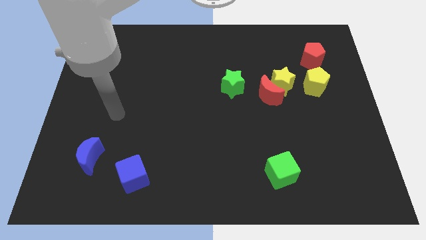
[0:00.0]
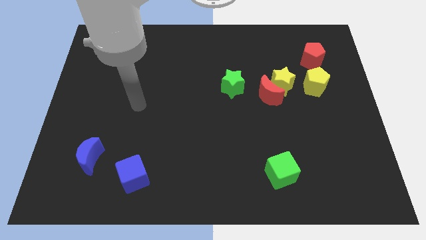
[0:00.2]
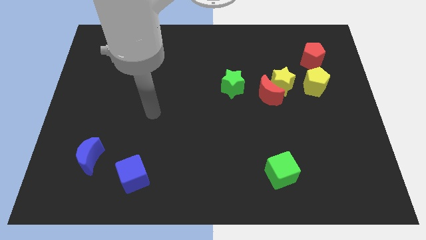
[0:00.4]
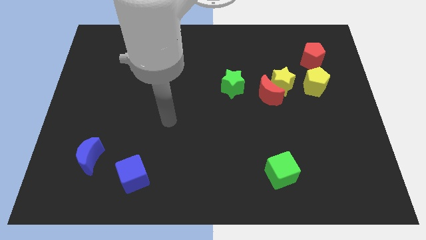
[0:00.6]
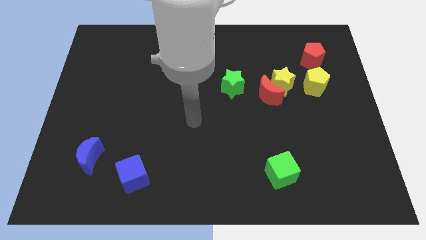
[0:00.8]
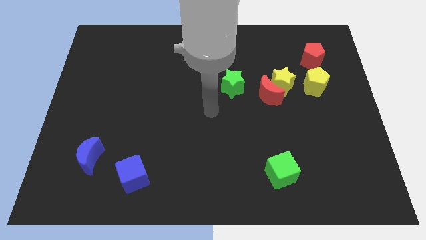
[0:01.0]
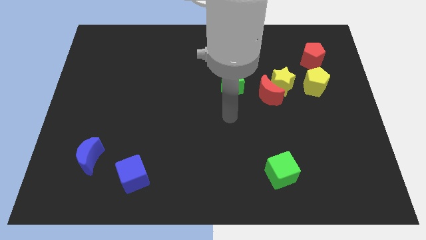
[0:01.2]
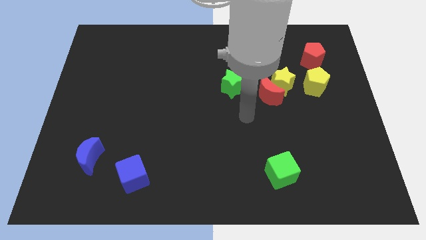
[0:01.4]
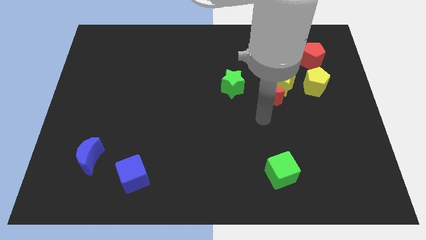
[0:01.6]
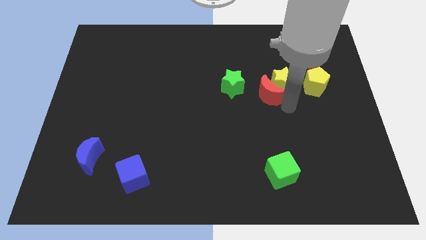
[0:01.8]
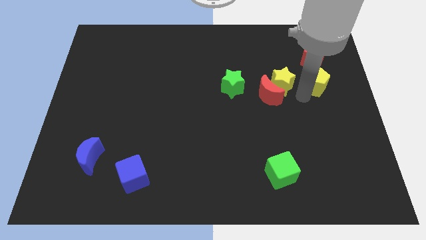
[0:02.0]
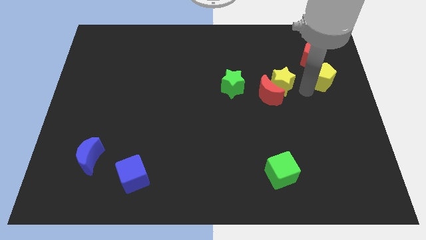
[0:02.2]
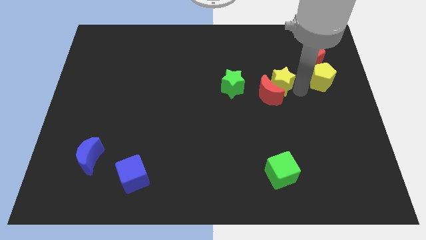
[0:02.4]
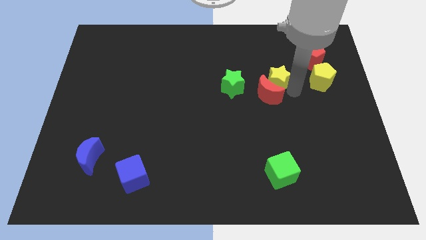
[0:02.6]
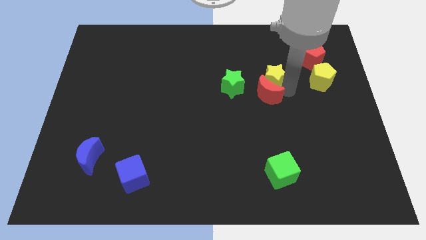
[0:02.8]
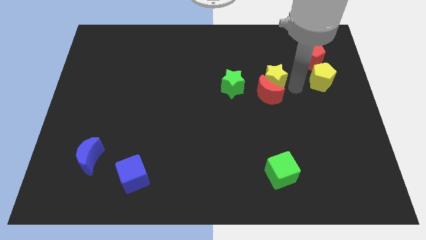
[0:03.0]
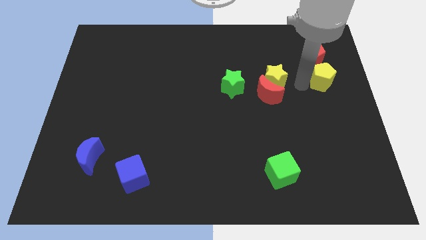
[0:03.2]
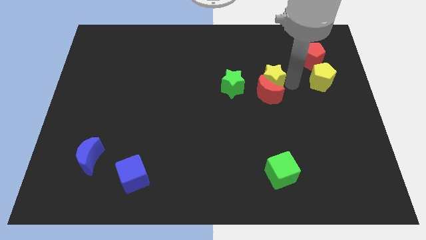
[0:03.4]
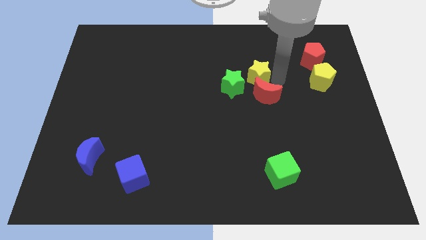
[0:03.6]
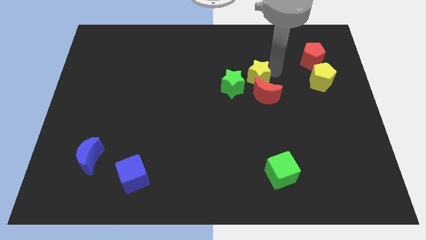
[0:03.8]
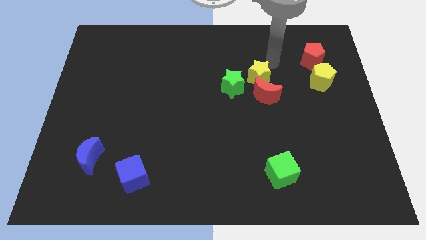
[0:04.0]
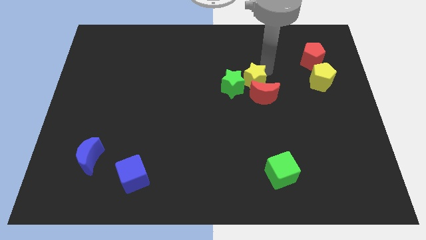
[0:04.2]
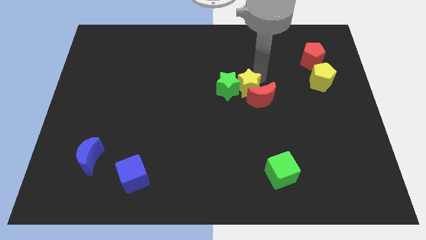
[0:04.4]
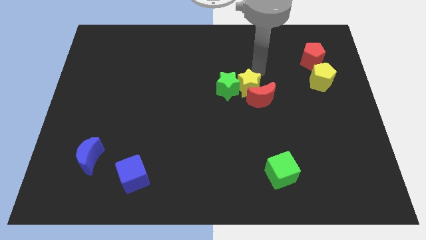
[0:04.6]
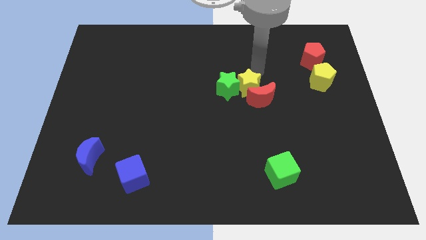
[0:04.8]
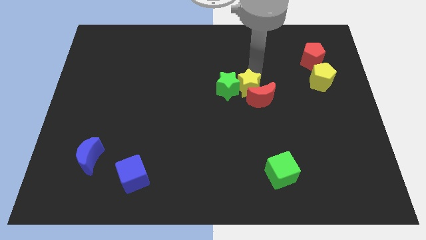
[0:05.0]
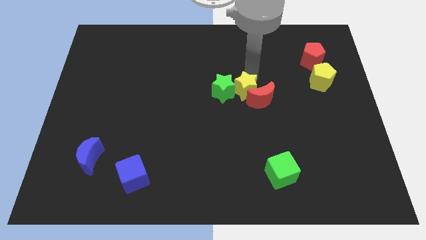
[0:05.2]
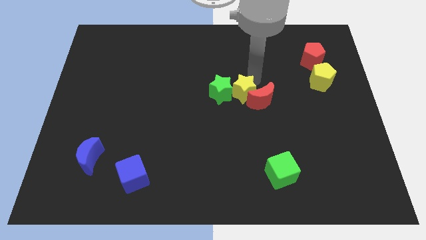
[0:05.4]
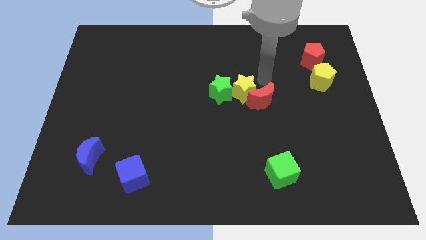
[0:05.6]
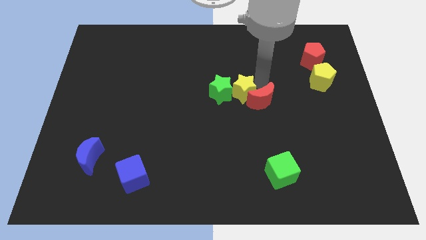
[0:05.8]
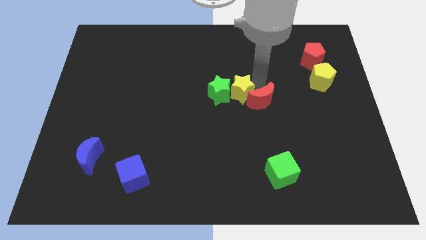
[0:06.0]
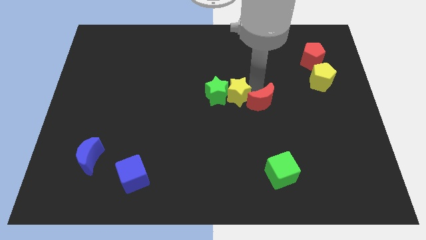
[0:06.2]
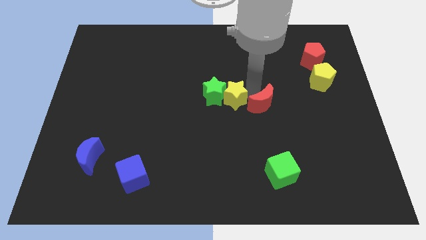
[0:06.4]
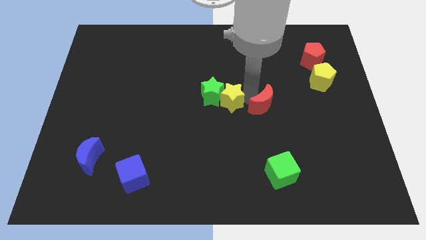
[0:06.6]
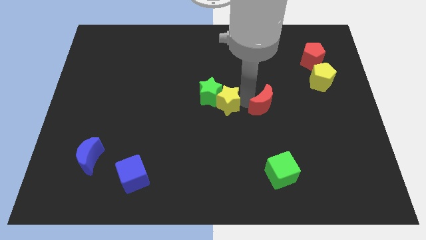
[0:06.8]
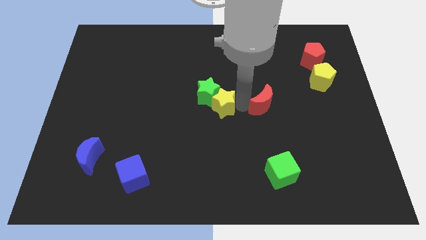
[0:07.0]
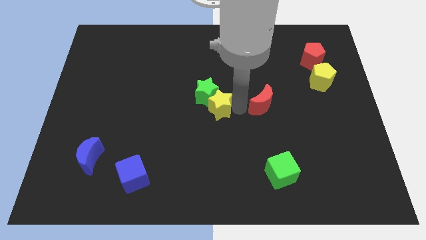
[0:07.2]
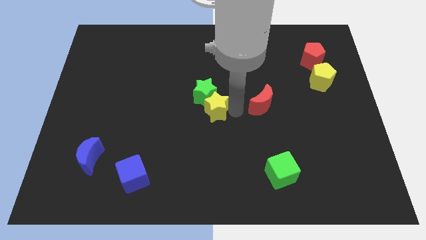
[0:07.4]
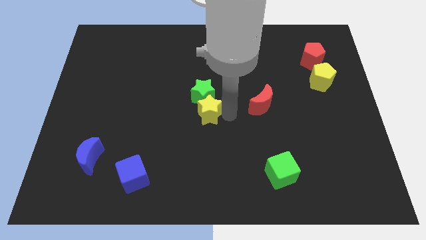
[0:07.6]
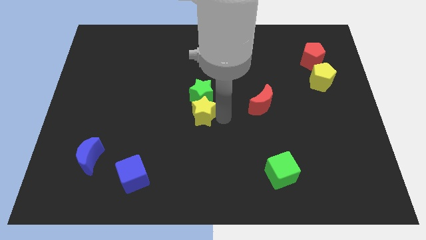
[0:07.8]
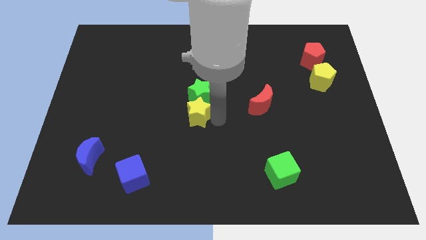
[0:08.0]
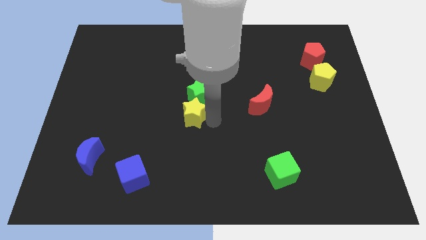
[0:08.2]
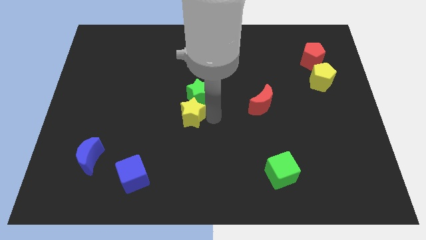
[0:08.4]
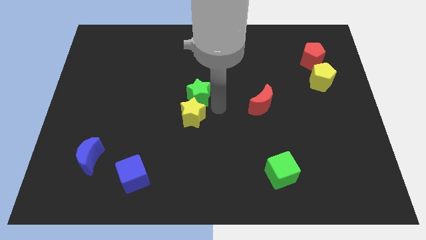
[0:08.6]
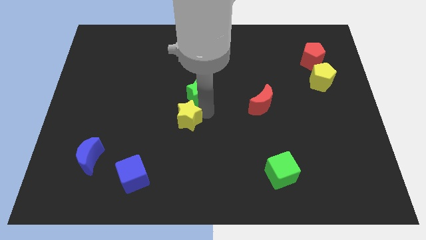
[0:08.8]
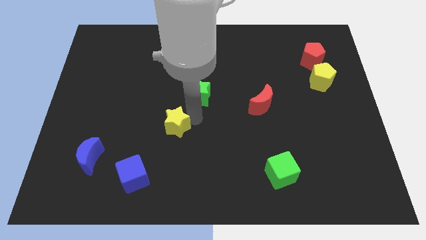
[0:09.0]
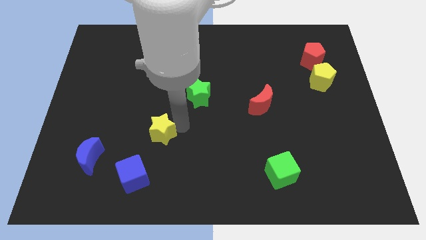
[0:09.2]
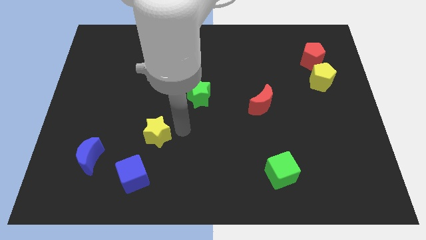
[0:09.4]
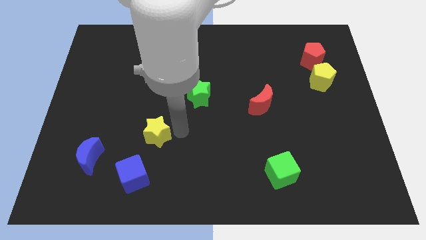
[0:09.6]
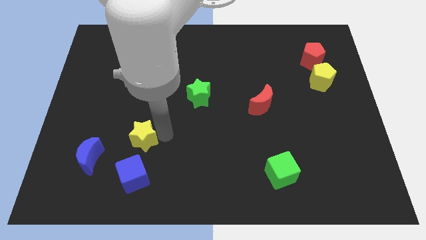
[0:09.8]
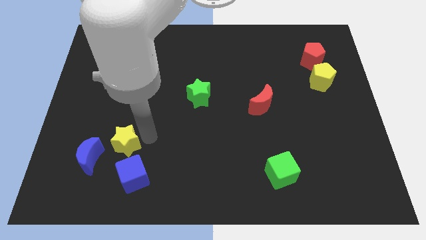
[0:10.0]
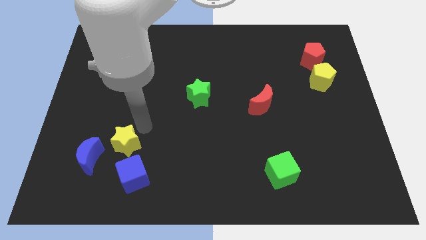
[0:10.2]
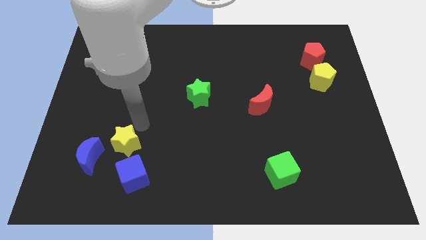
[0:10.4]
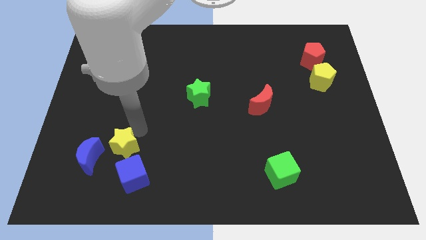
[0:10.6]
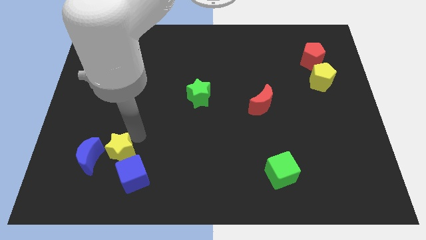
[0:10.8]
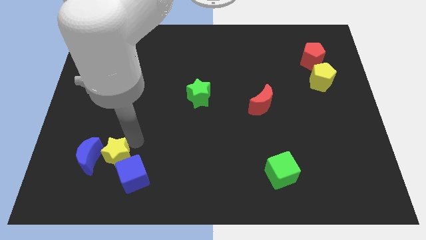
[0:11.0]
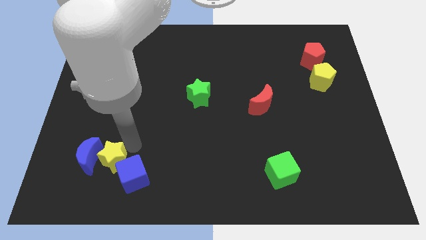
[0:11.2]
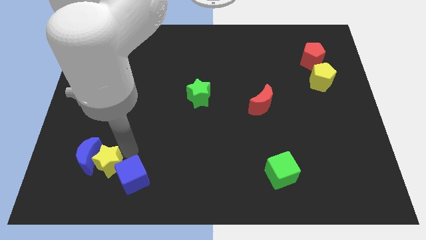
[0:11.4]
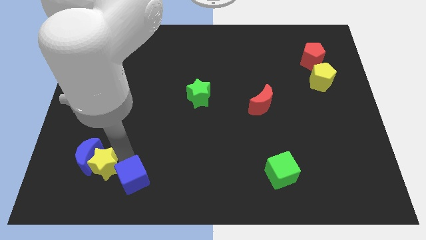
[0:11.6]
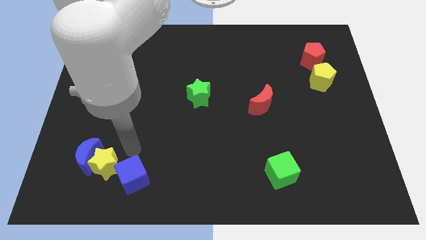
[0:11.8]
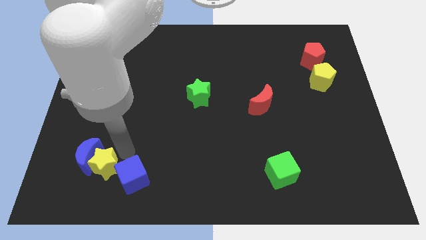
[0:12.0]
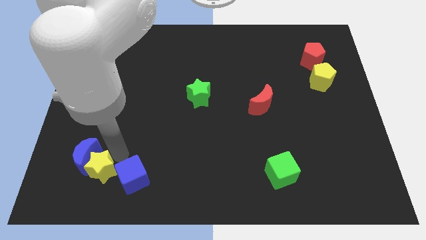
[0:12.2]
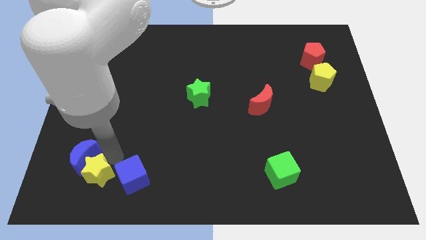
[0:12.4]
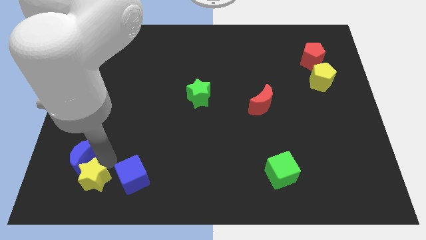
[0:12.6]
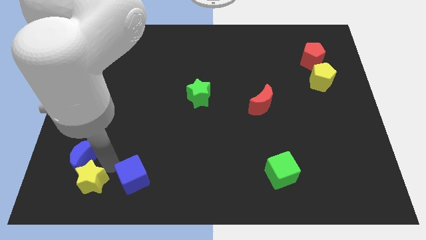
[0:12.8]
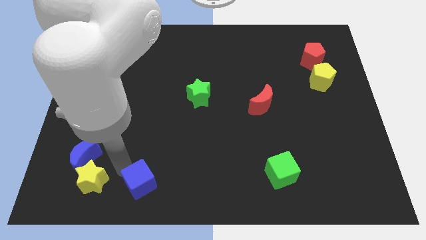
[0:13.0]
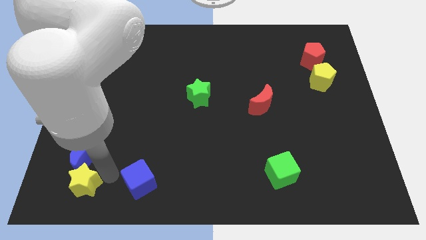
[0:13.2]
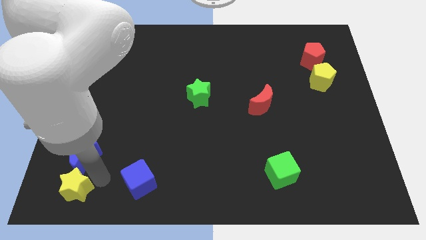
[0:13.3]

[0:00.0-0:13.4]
put the yellow star to the lower left corner
